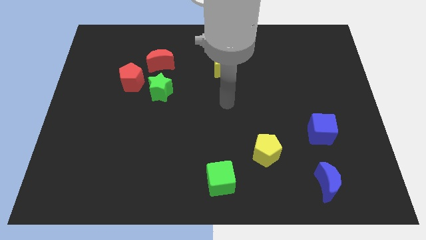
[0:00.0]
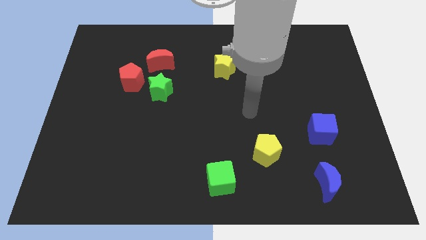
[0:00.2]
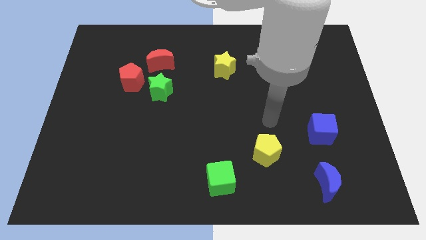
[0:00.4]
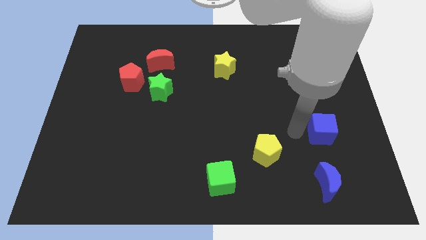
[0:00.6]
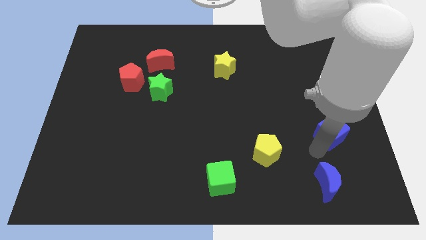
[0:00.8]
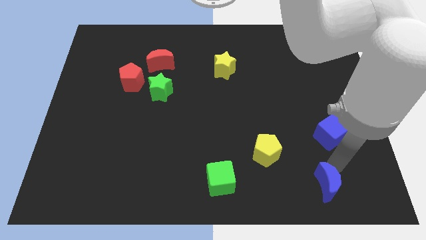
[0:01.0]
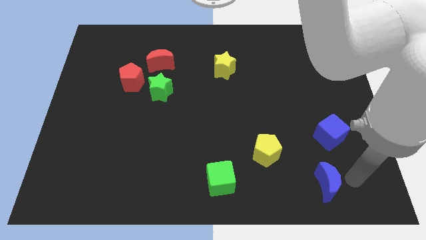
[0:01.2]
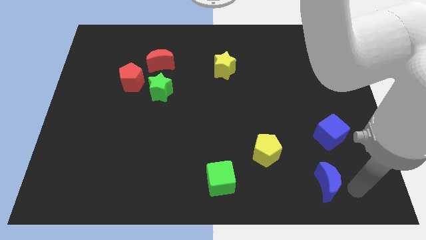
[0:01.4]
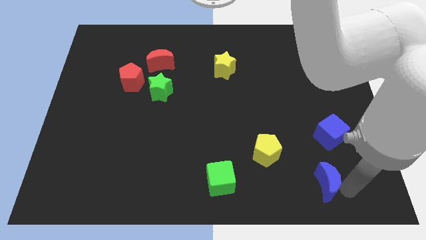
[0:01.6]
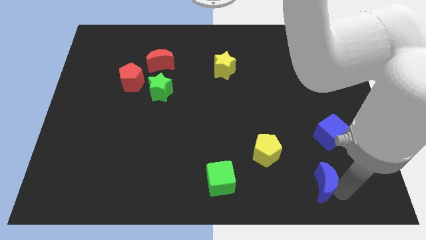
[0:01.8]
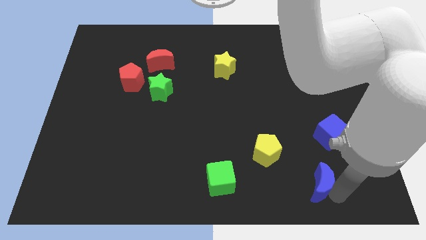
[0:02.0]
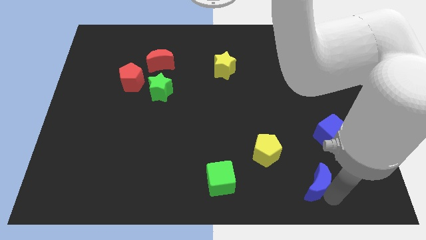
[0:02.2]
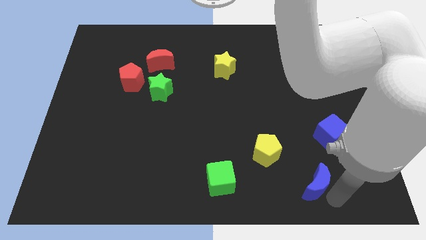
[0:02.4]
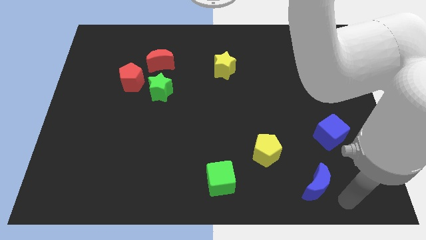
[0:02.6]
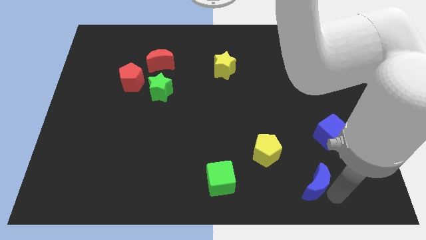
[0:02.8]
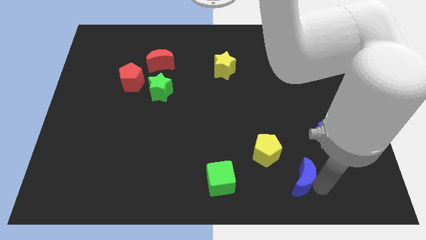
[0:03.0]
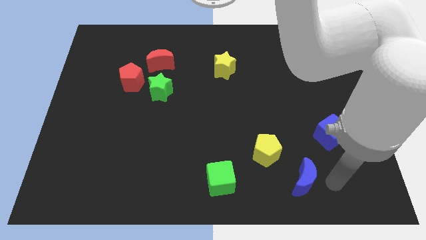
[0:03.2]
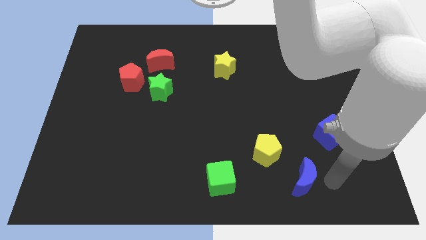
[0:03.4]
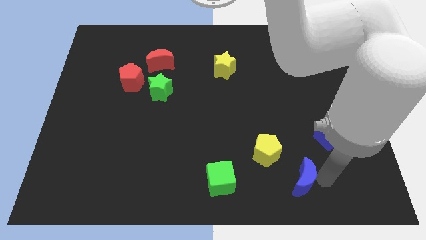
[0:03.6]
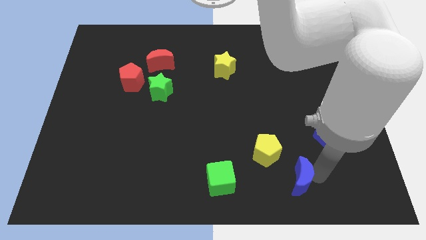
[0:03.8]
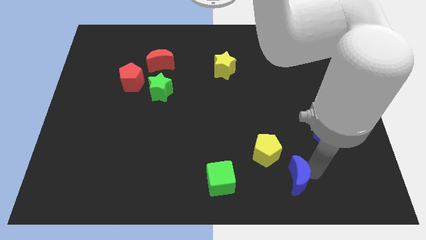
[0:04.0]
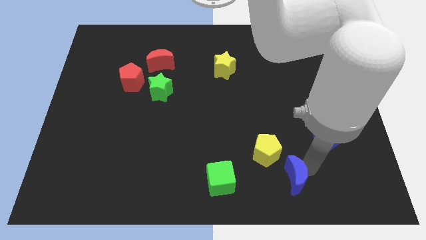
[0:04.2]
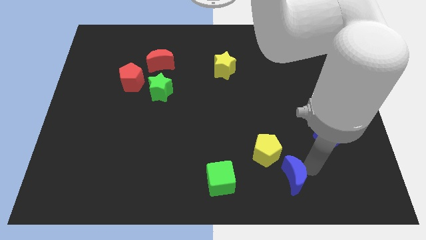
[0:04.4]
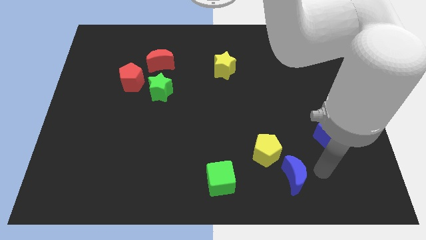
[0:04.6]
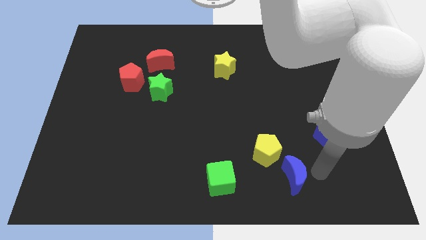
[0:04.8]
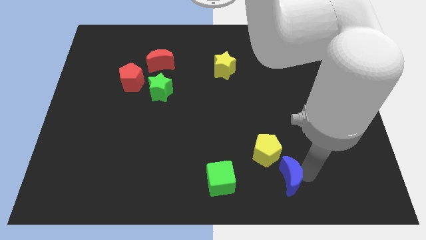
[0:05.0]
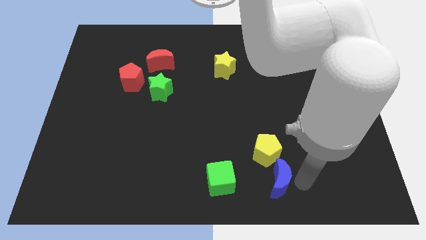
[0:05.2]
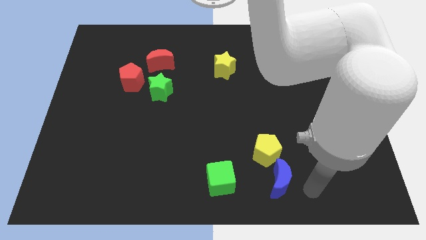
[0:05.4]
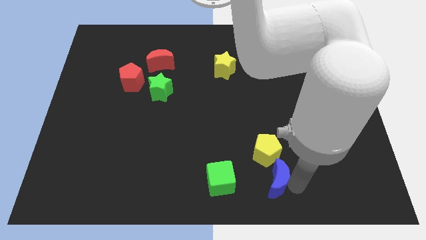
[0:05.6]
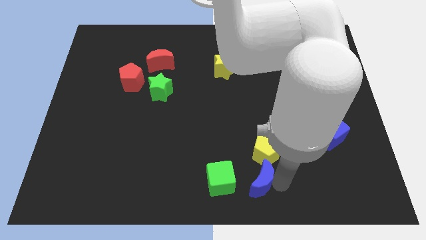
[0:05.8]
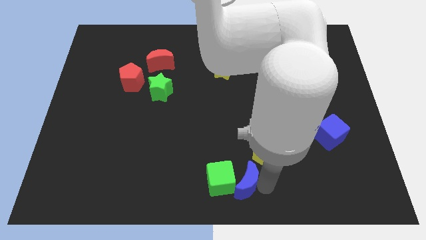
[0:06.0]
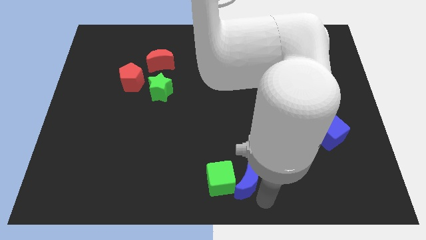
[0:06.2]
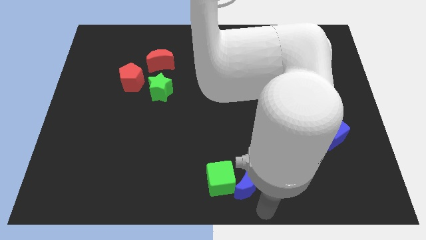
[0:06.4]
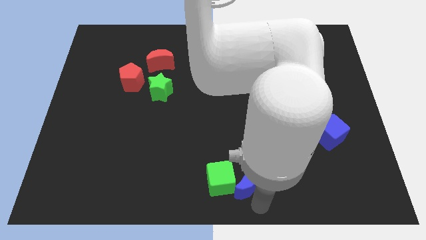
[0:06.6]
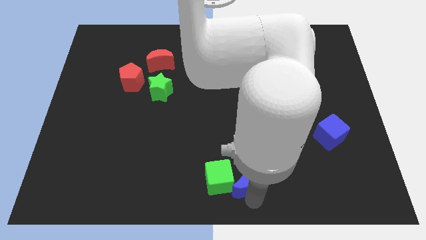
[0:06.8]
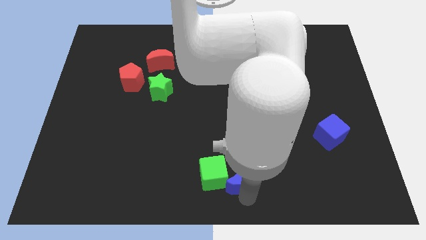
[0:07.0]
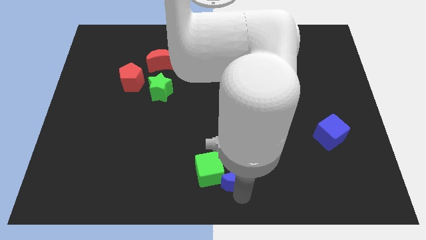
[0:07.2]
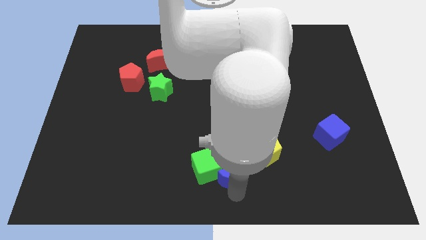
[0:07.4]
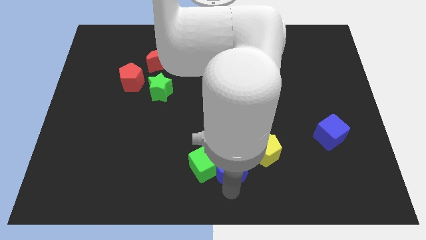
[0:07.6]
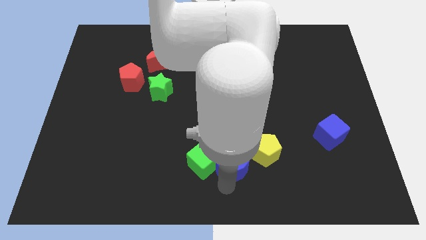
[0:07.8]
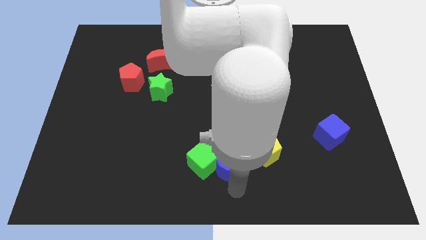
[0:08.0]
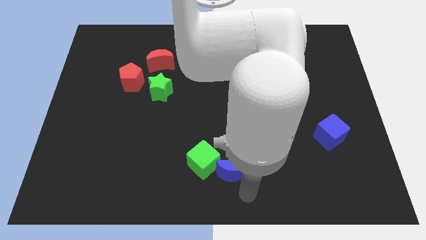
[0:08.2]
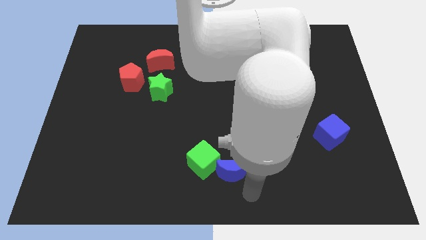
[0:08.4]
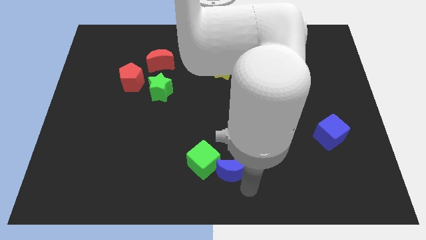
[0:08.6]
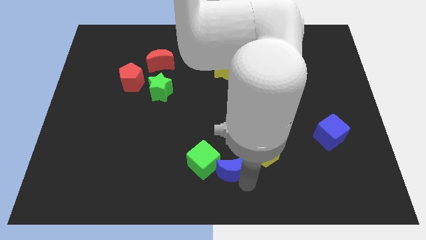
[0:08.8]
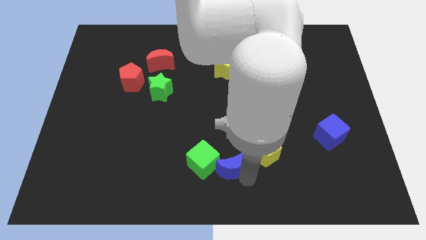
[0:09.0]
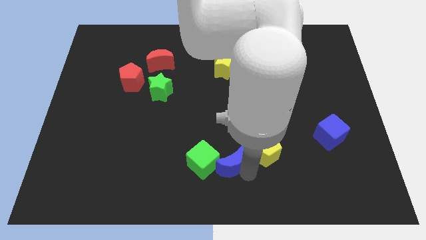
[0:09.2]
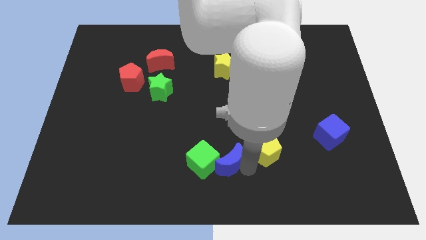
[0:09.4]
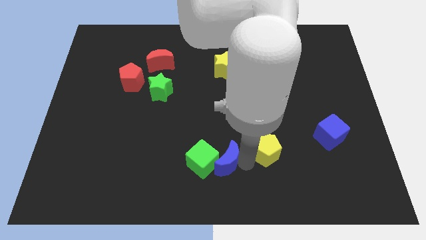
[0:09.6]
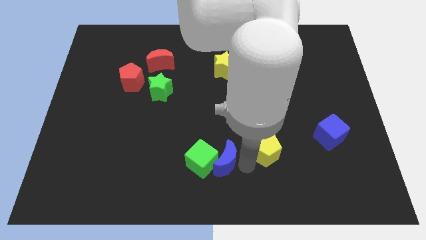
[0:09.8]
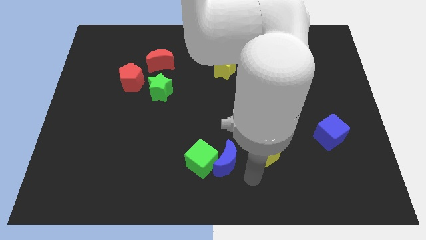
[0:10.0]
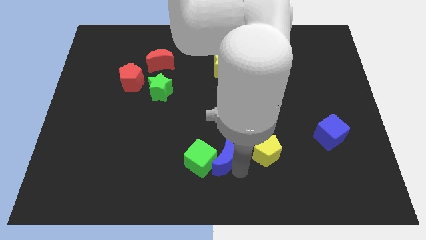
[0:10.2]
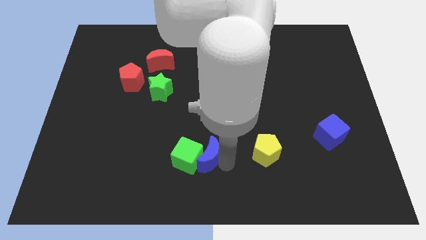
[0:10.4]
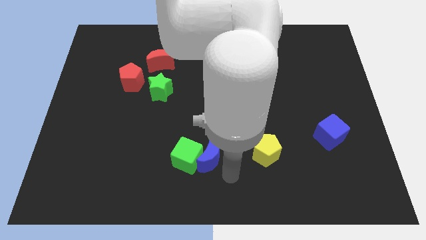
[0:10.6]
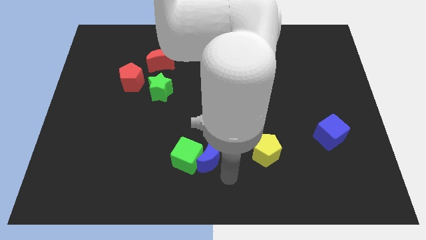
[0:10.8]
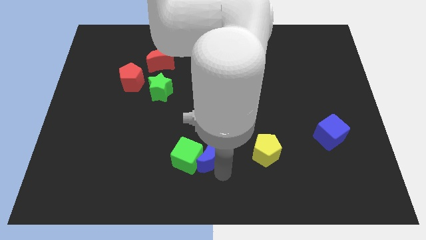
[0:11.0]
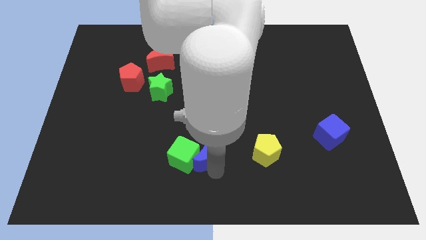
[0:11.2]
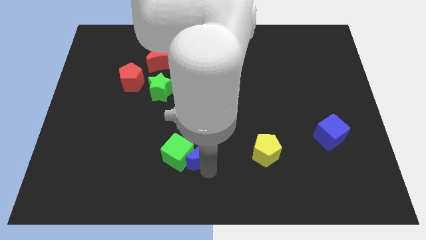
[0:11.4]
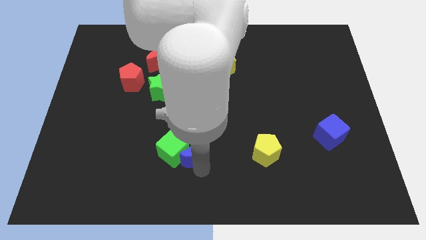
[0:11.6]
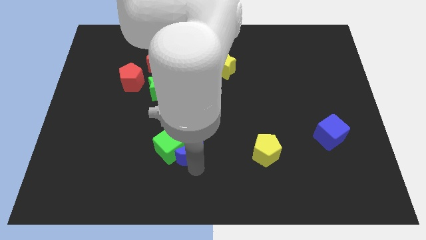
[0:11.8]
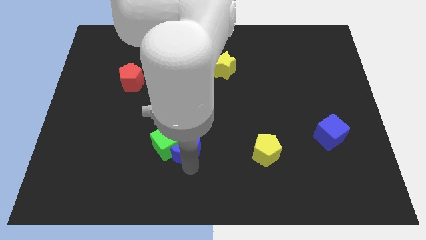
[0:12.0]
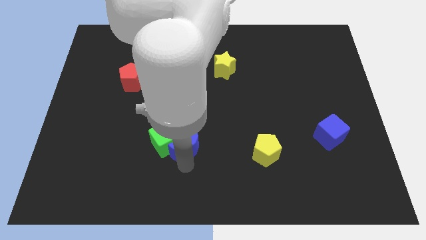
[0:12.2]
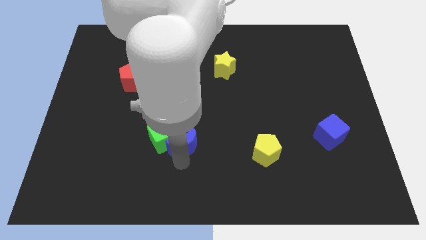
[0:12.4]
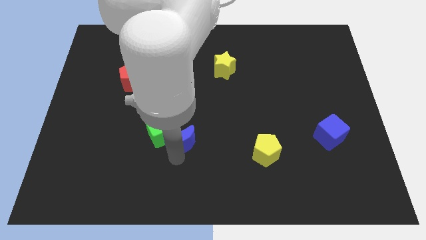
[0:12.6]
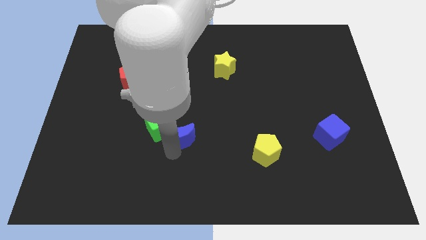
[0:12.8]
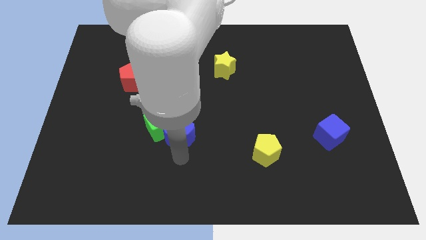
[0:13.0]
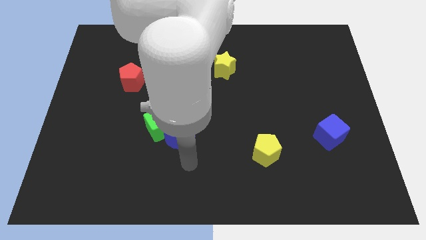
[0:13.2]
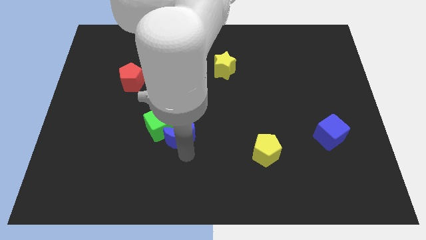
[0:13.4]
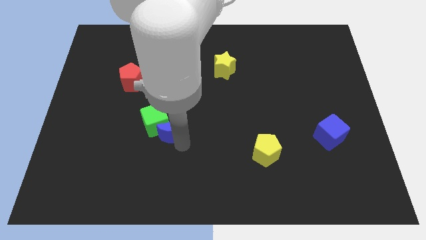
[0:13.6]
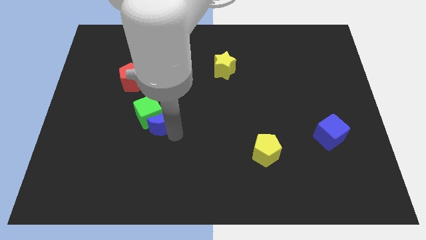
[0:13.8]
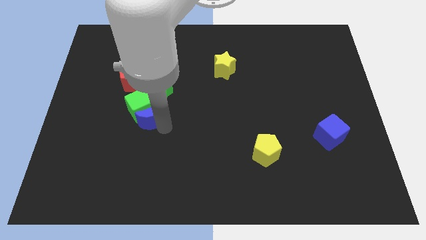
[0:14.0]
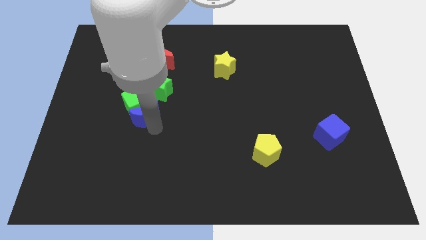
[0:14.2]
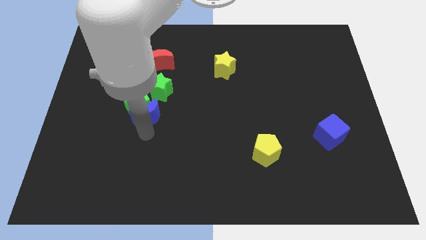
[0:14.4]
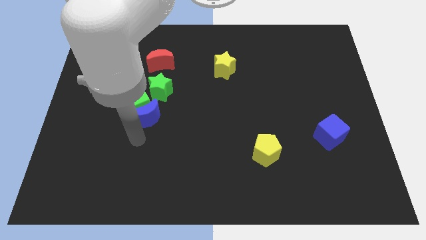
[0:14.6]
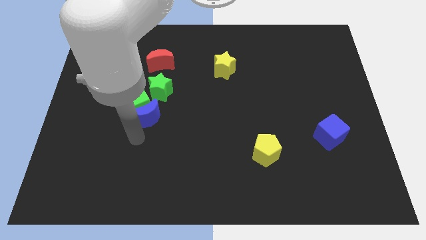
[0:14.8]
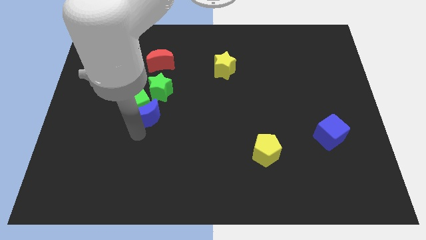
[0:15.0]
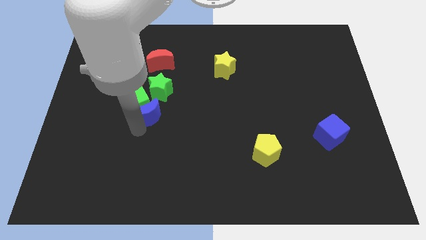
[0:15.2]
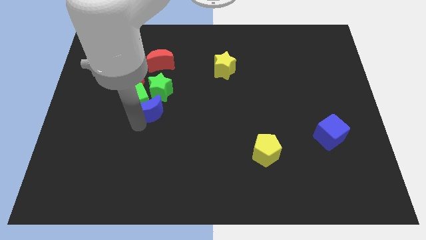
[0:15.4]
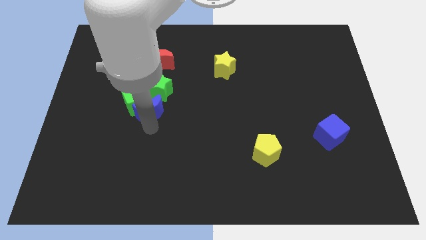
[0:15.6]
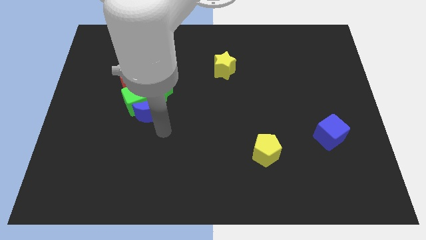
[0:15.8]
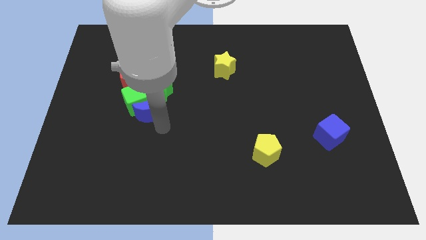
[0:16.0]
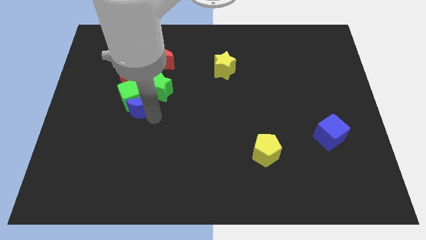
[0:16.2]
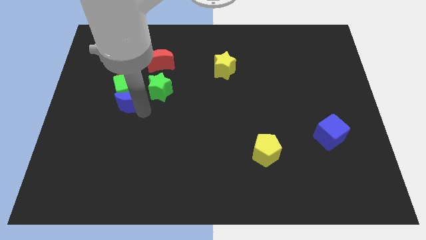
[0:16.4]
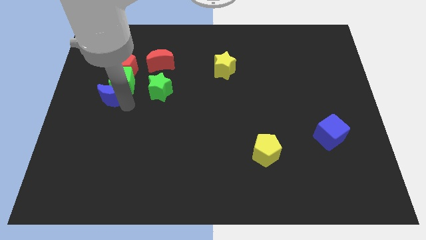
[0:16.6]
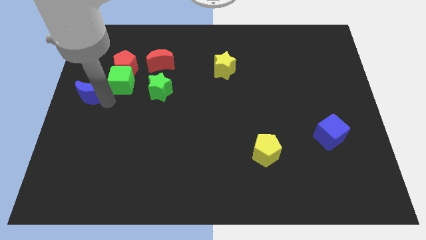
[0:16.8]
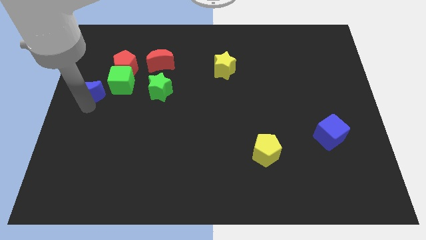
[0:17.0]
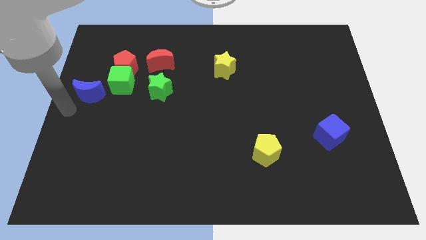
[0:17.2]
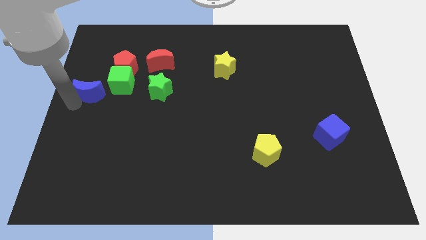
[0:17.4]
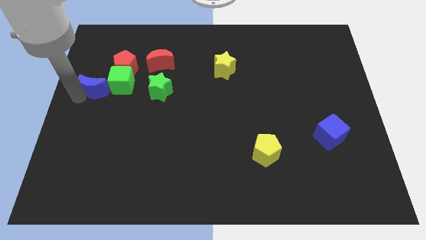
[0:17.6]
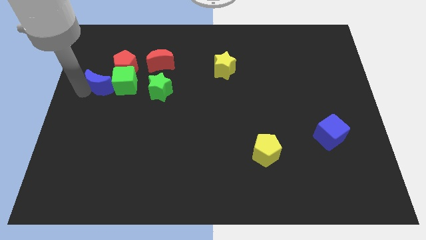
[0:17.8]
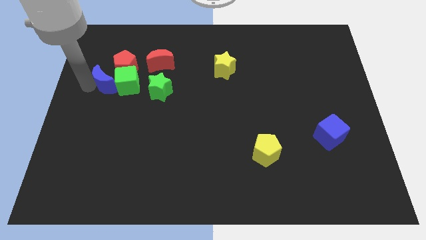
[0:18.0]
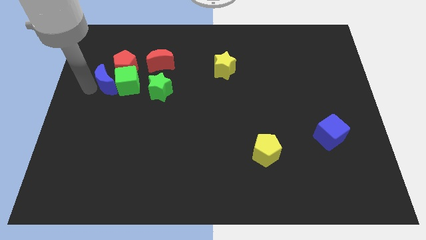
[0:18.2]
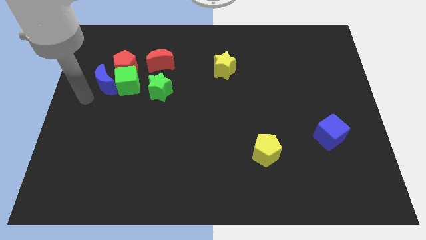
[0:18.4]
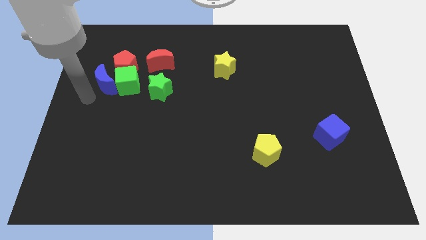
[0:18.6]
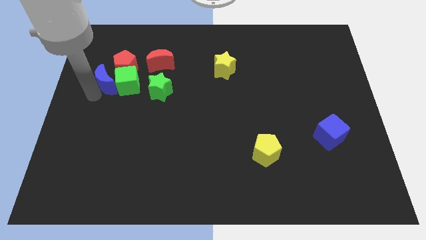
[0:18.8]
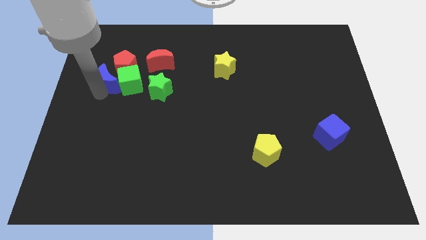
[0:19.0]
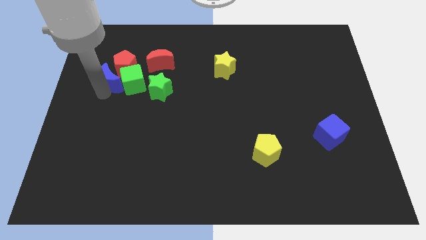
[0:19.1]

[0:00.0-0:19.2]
move the blue moon next to the red pentagon
